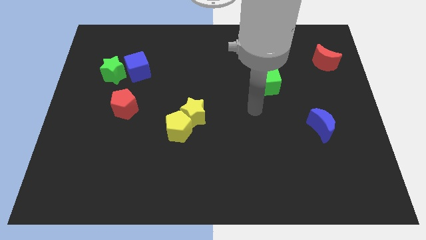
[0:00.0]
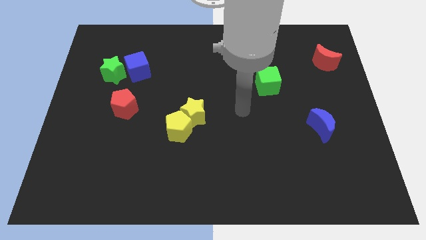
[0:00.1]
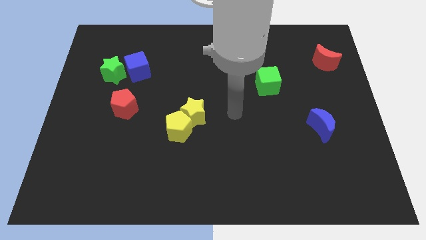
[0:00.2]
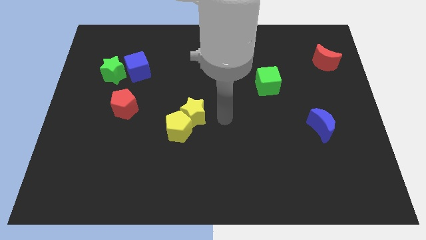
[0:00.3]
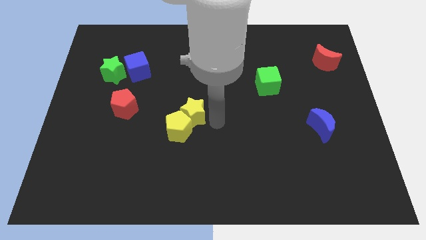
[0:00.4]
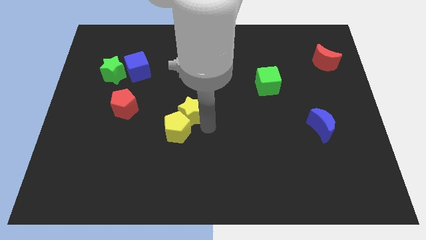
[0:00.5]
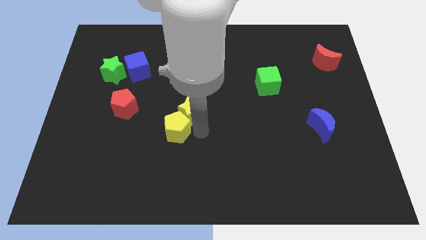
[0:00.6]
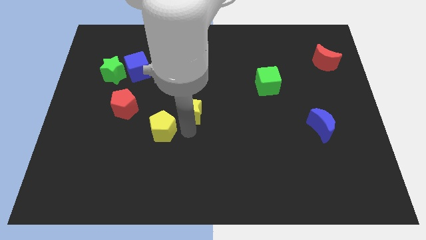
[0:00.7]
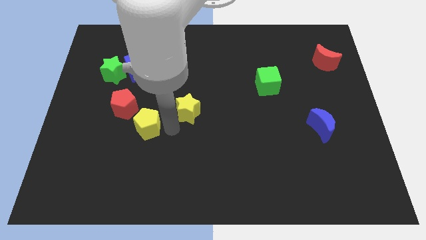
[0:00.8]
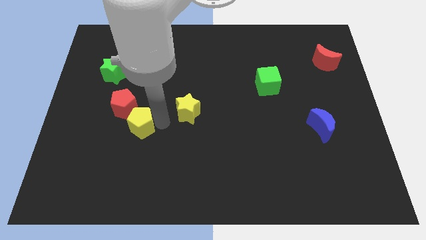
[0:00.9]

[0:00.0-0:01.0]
separate the yellow star from the yellow pentagon

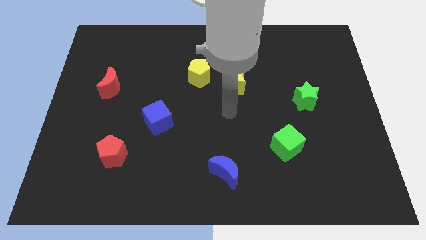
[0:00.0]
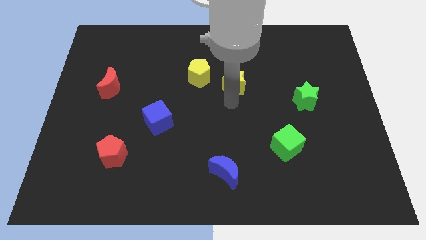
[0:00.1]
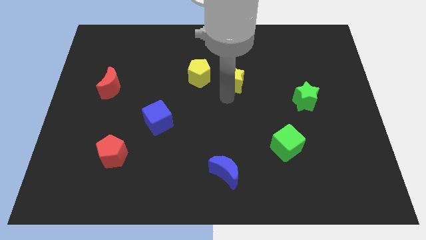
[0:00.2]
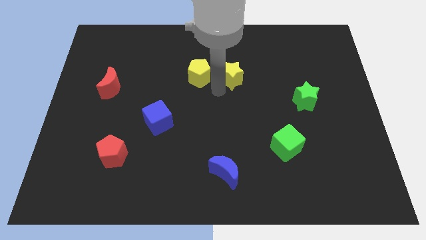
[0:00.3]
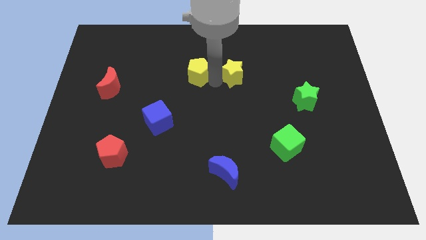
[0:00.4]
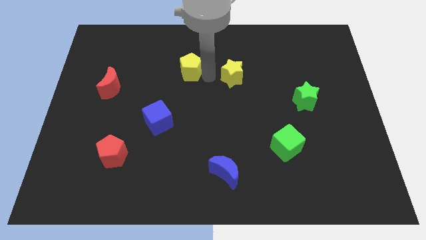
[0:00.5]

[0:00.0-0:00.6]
pull the yellow star apart from the yellow pentagon

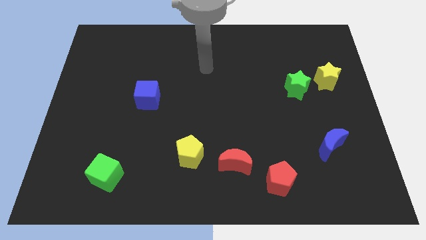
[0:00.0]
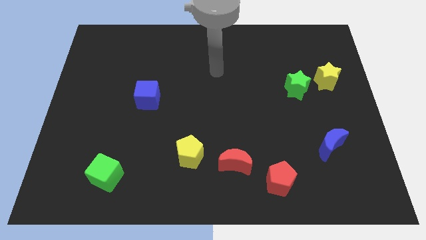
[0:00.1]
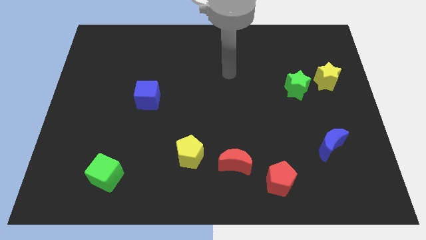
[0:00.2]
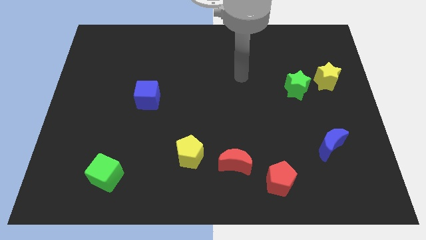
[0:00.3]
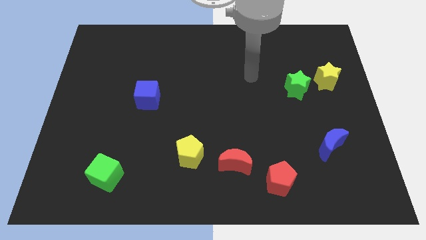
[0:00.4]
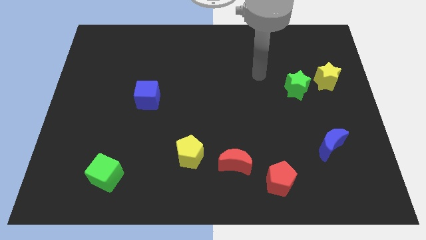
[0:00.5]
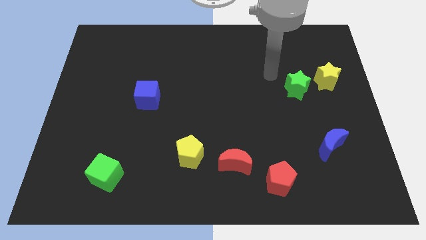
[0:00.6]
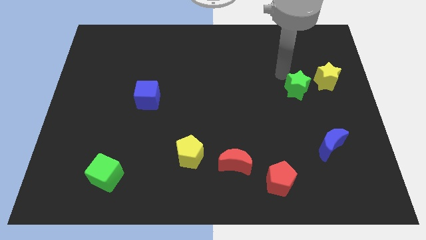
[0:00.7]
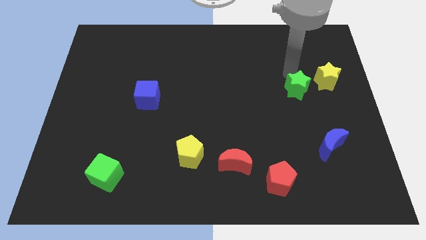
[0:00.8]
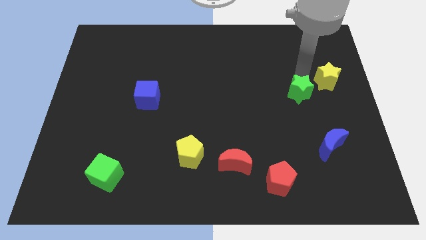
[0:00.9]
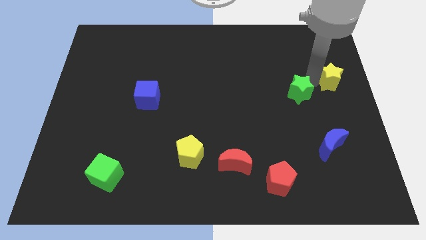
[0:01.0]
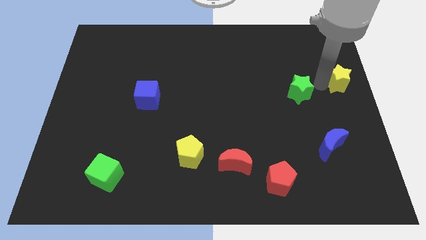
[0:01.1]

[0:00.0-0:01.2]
move the green star away from the yellow star

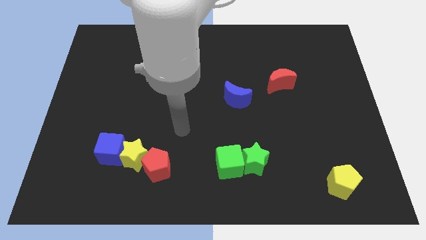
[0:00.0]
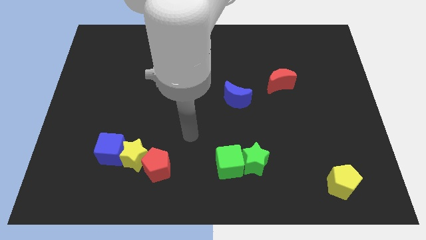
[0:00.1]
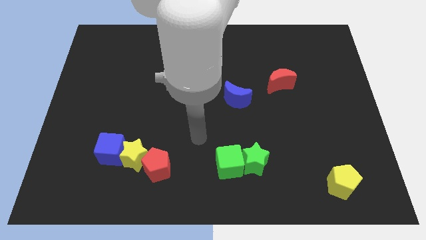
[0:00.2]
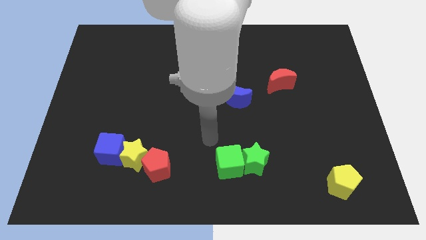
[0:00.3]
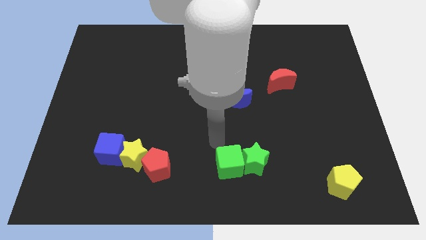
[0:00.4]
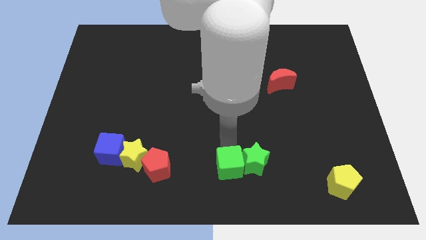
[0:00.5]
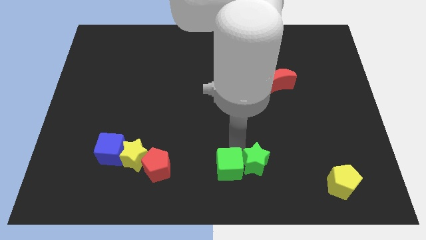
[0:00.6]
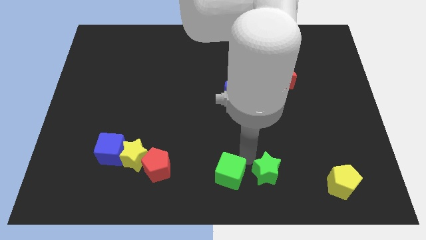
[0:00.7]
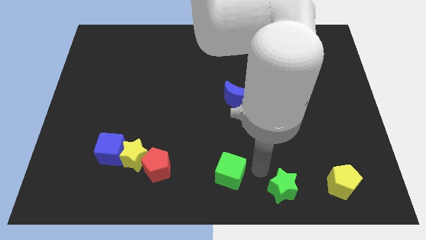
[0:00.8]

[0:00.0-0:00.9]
move the green cube away from the green star

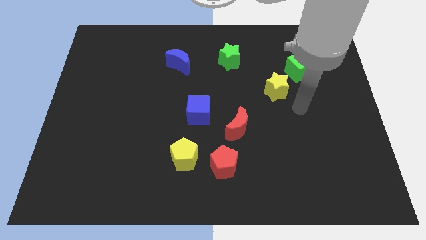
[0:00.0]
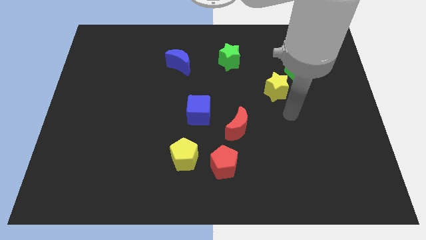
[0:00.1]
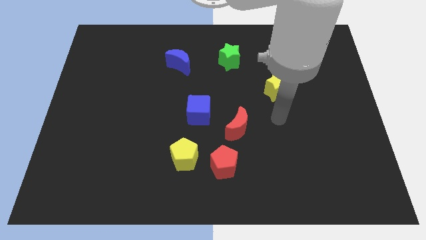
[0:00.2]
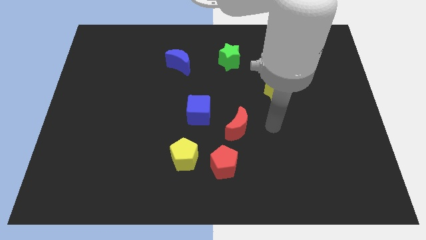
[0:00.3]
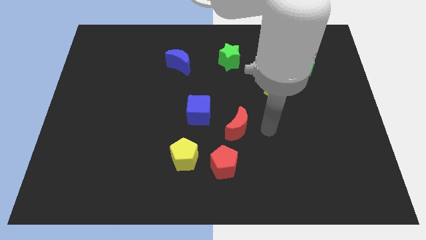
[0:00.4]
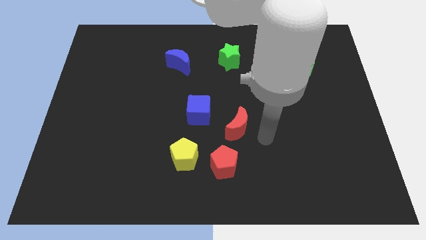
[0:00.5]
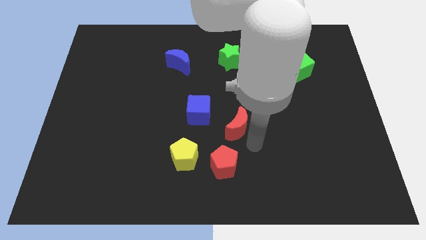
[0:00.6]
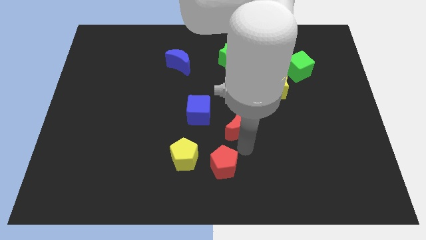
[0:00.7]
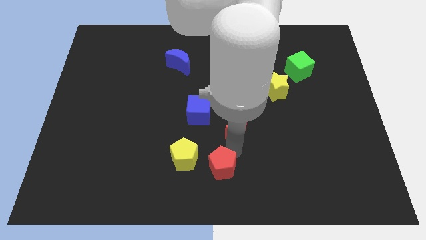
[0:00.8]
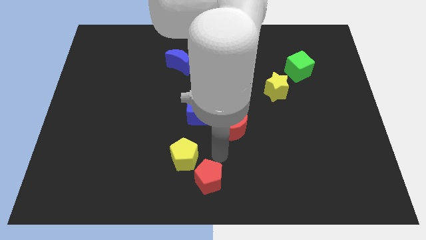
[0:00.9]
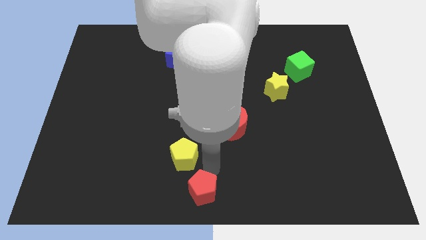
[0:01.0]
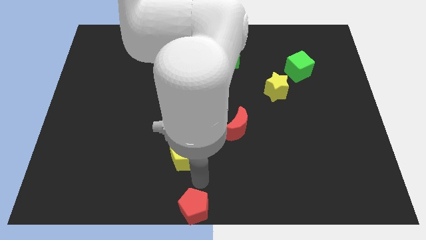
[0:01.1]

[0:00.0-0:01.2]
separate the yellow pentagon from the red pentagon

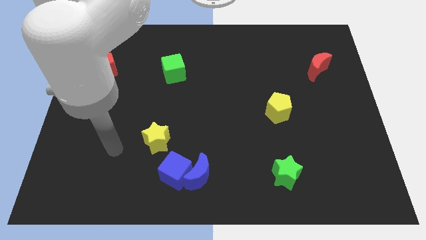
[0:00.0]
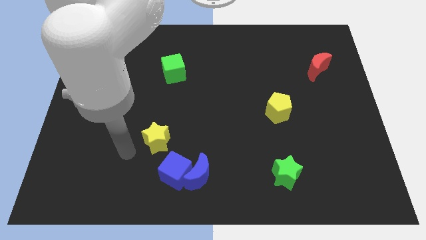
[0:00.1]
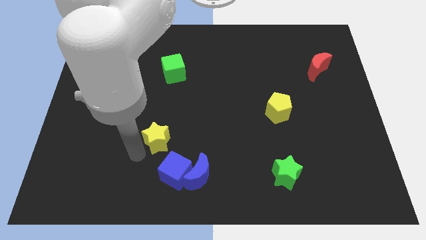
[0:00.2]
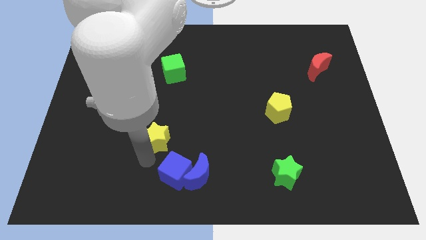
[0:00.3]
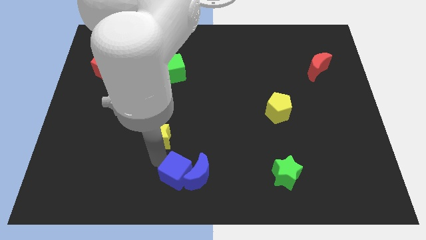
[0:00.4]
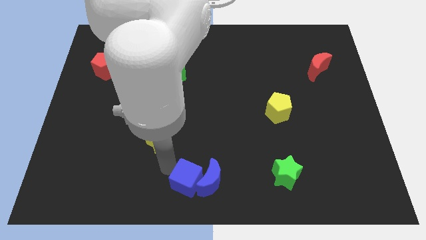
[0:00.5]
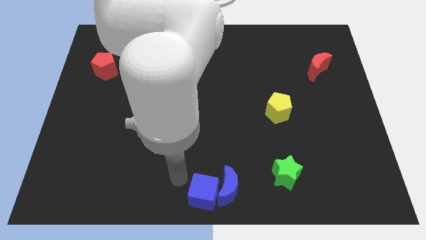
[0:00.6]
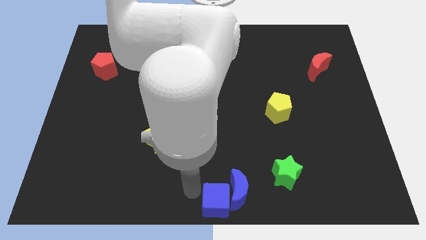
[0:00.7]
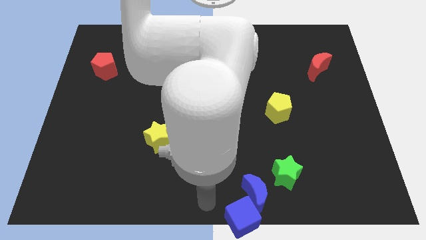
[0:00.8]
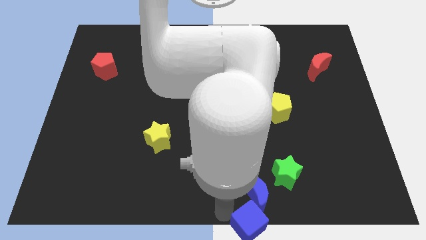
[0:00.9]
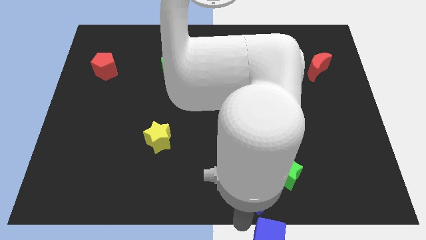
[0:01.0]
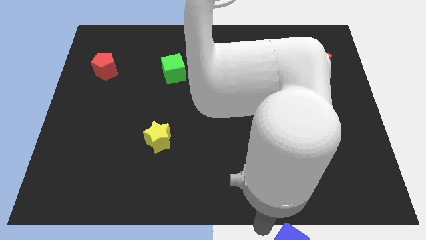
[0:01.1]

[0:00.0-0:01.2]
separate the blue moon from the blue cube

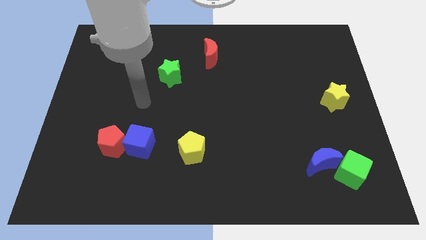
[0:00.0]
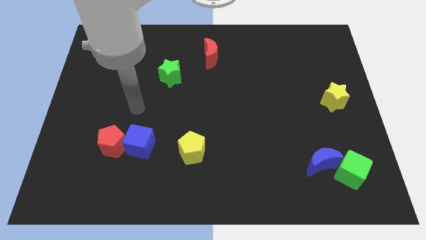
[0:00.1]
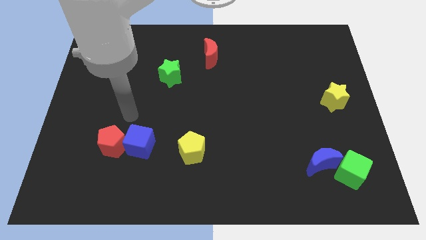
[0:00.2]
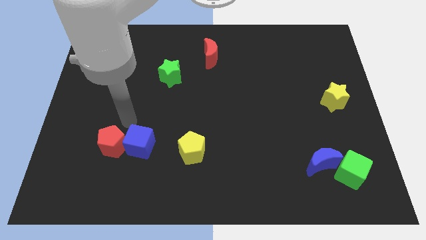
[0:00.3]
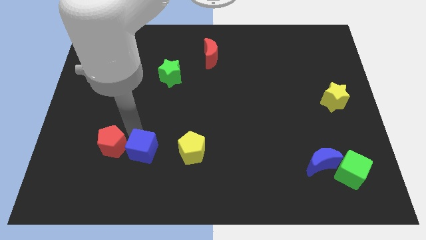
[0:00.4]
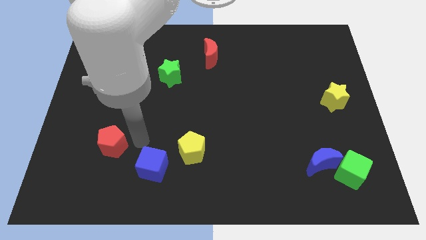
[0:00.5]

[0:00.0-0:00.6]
separate the red pentagon from the blue cube

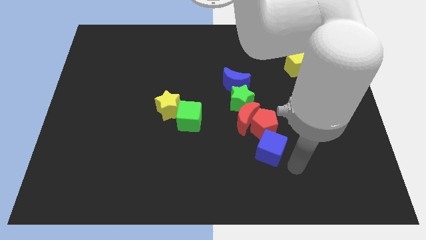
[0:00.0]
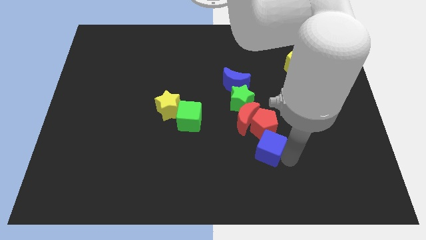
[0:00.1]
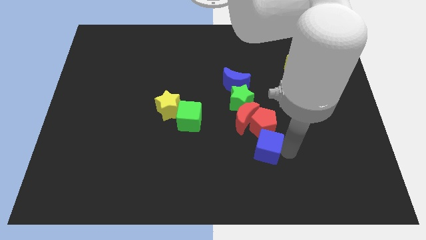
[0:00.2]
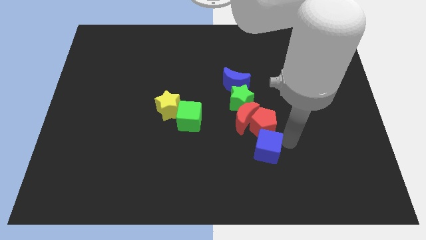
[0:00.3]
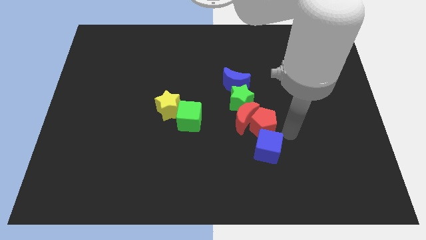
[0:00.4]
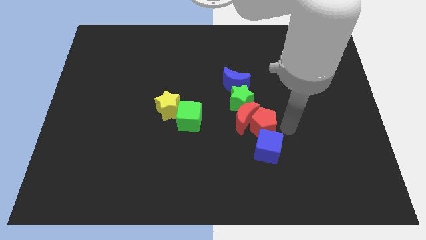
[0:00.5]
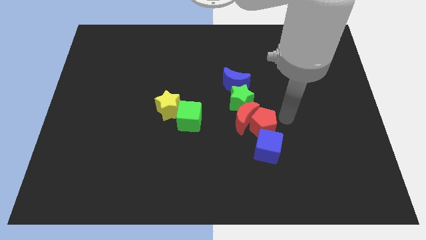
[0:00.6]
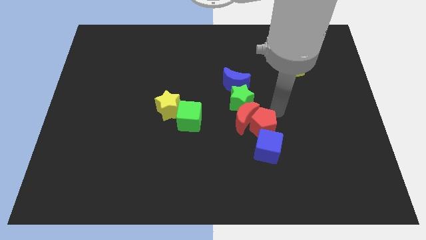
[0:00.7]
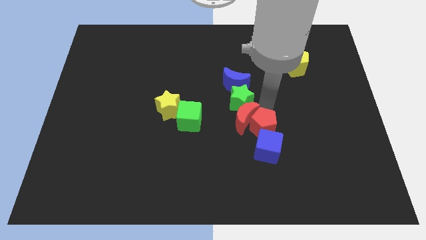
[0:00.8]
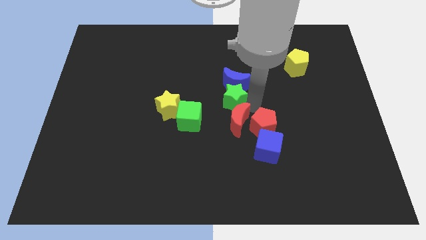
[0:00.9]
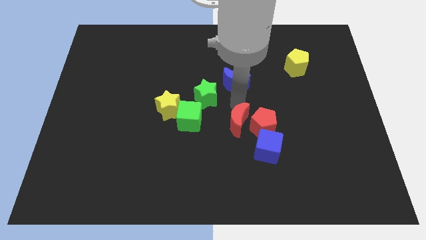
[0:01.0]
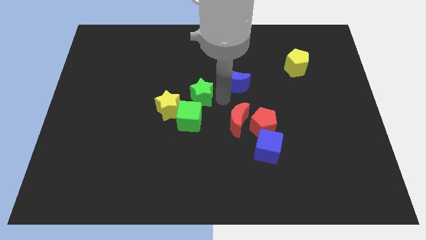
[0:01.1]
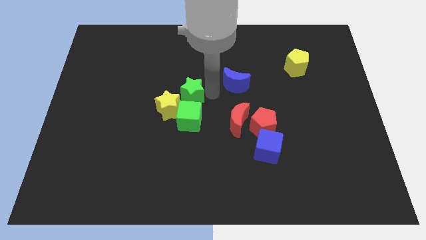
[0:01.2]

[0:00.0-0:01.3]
move the blue moon away from the green star

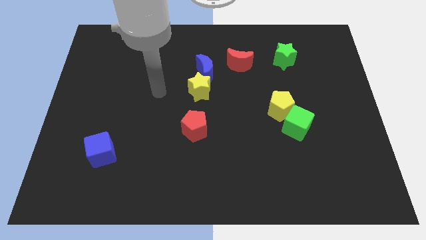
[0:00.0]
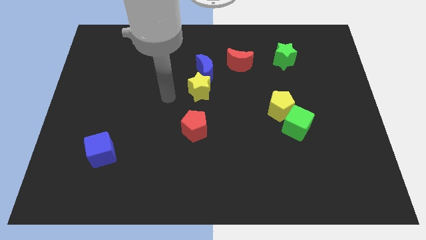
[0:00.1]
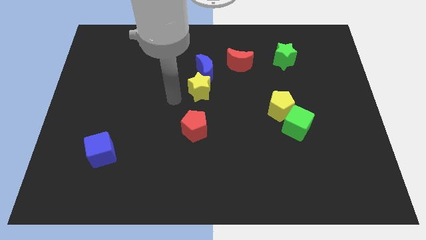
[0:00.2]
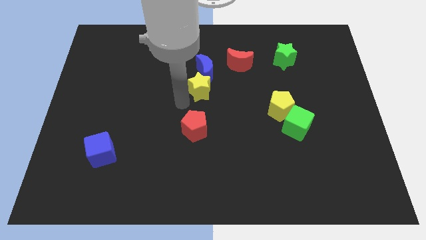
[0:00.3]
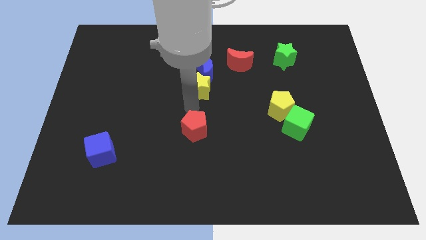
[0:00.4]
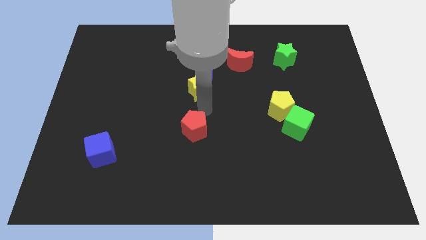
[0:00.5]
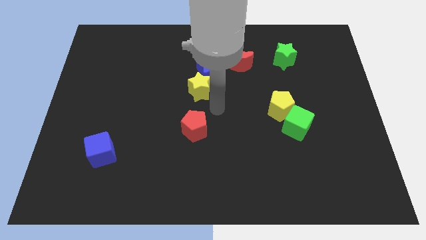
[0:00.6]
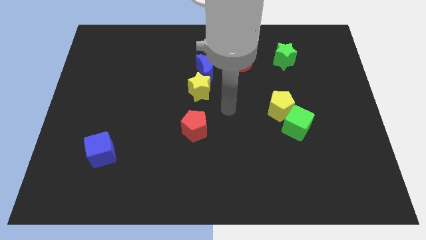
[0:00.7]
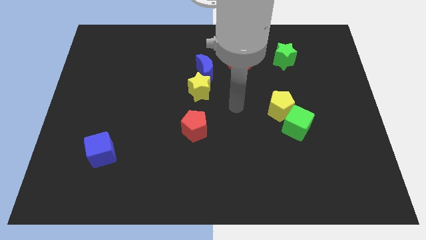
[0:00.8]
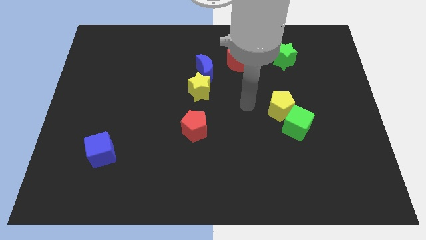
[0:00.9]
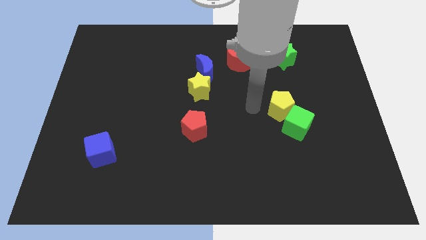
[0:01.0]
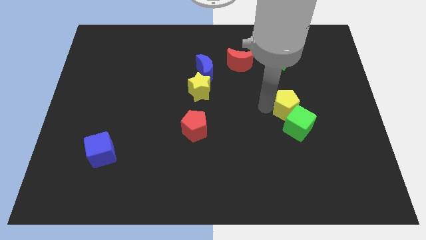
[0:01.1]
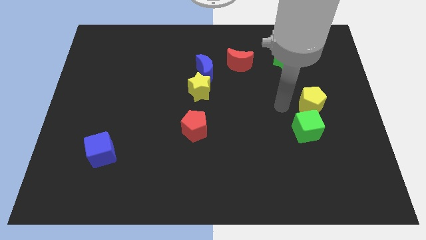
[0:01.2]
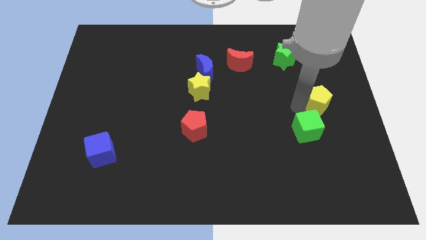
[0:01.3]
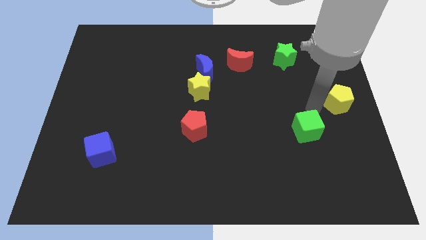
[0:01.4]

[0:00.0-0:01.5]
separate the green cube from the yellow pentagon
